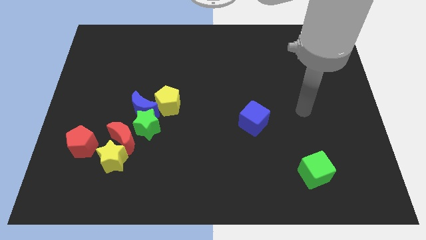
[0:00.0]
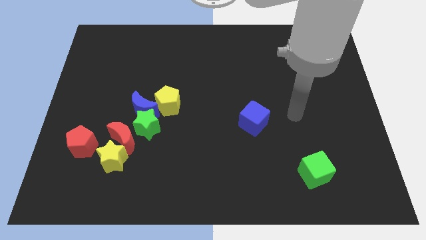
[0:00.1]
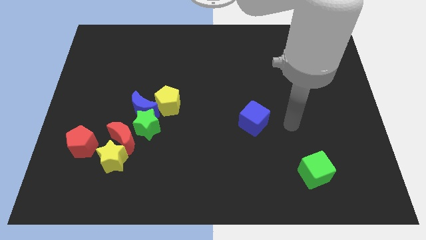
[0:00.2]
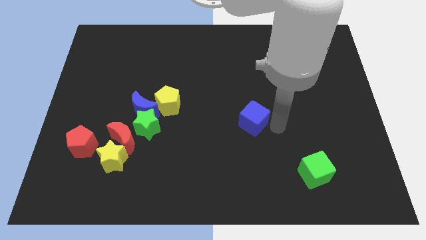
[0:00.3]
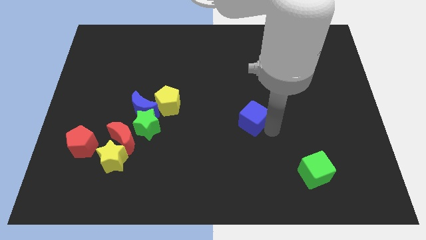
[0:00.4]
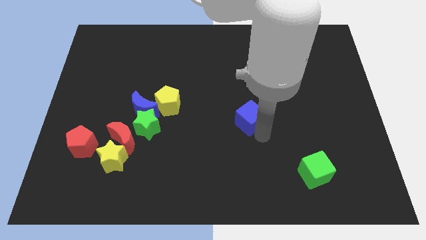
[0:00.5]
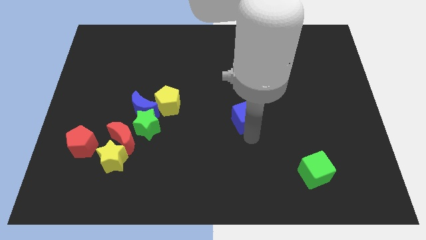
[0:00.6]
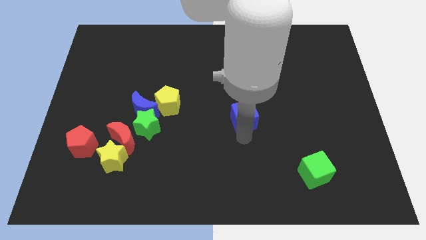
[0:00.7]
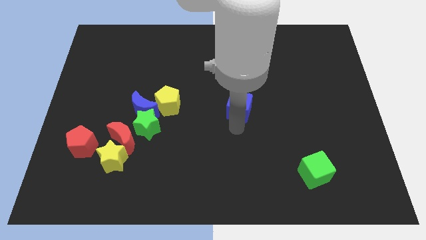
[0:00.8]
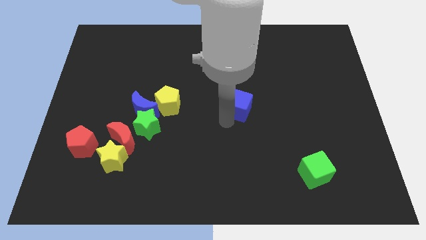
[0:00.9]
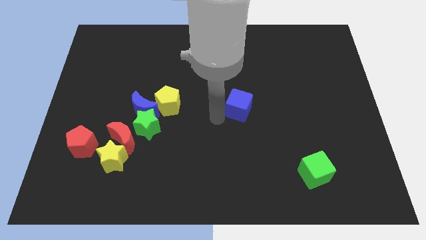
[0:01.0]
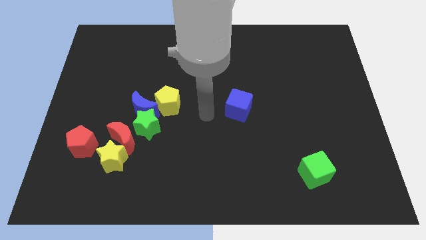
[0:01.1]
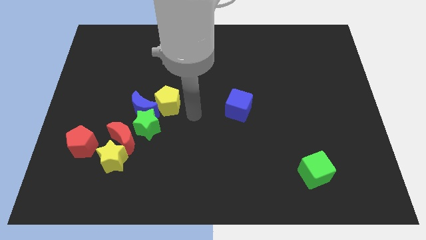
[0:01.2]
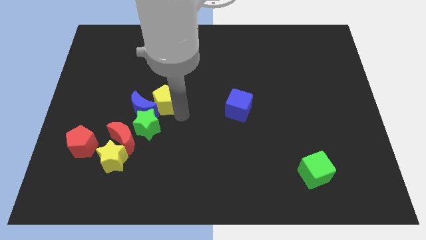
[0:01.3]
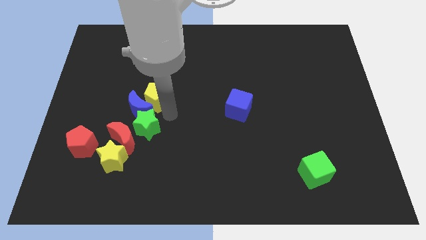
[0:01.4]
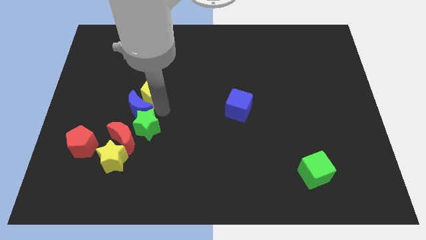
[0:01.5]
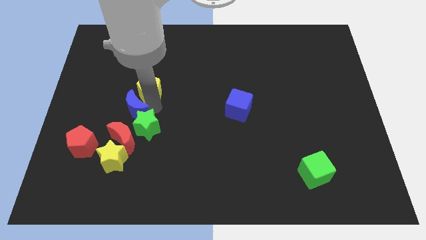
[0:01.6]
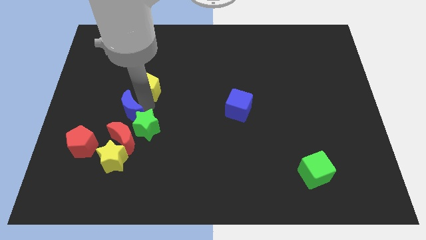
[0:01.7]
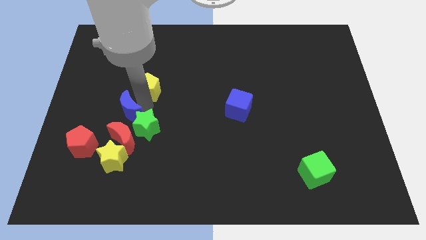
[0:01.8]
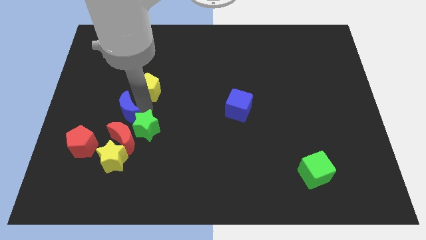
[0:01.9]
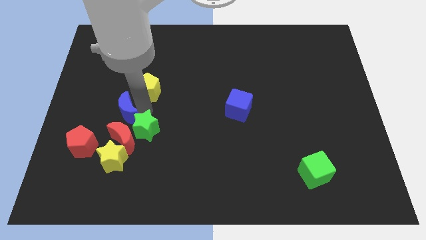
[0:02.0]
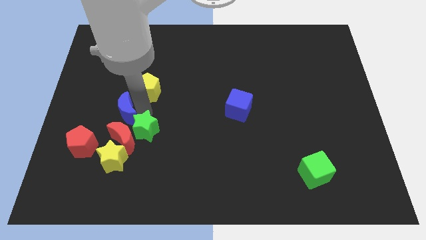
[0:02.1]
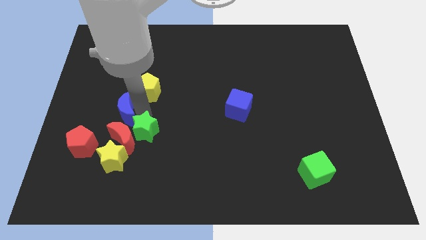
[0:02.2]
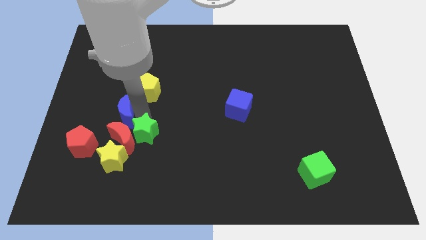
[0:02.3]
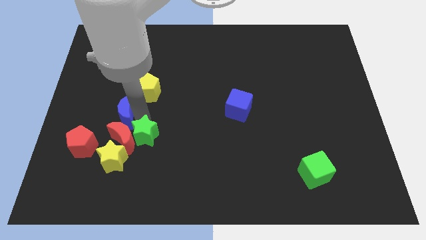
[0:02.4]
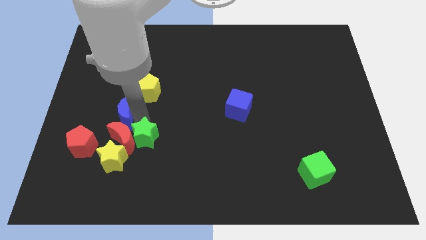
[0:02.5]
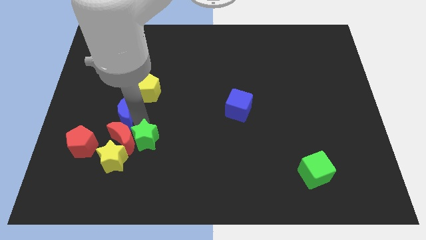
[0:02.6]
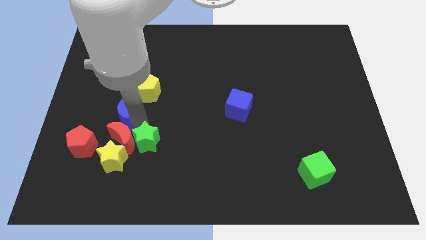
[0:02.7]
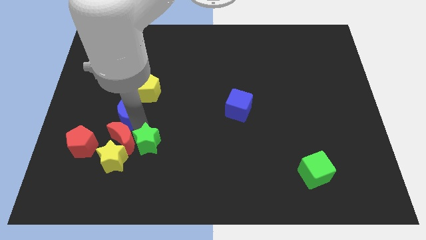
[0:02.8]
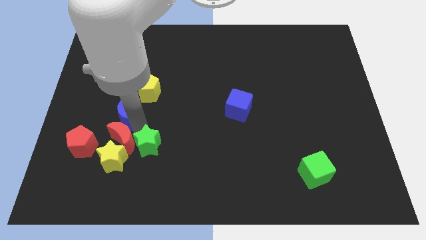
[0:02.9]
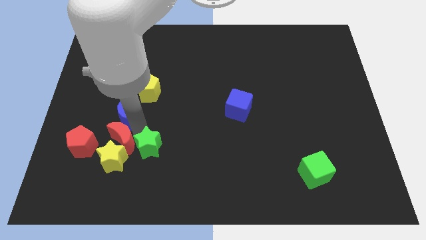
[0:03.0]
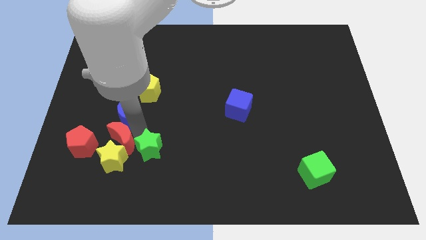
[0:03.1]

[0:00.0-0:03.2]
move the green star away from the clump

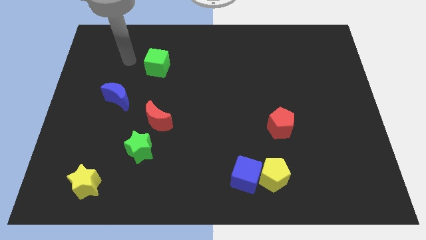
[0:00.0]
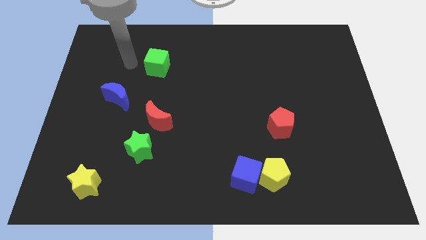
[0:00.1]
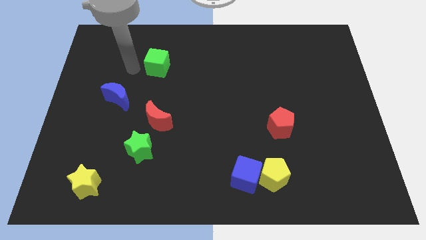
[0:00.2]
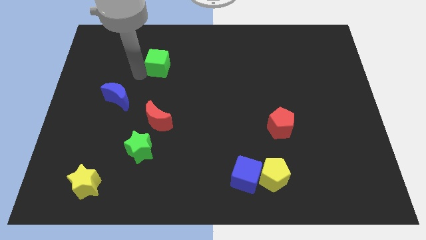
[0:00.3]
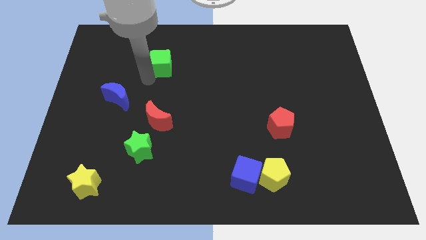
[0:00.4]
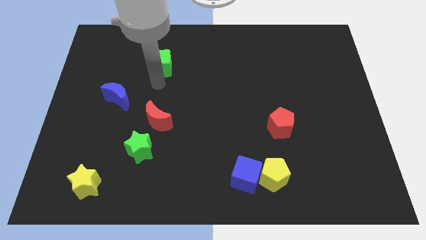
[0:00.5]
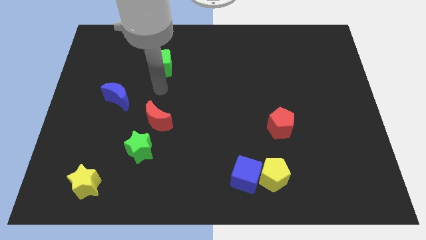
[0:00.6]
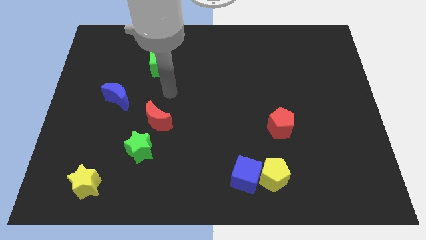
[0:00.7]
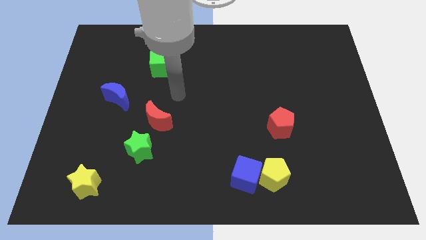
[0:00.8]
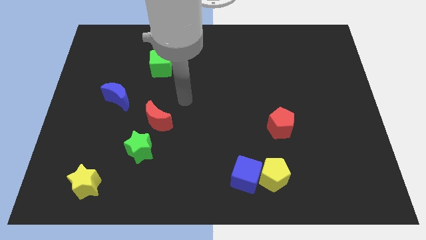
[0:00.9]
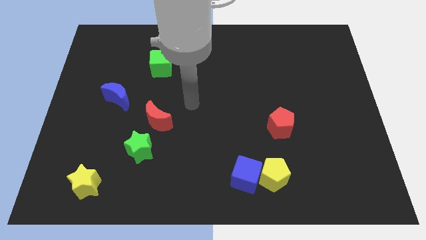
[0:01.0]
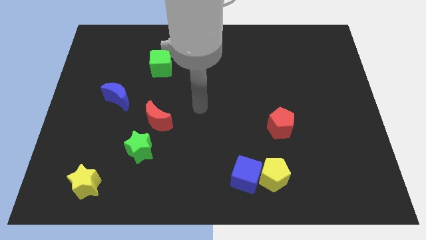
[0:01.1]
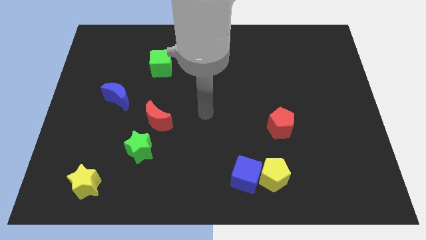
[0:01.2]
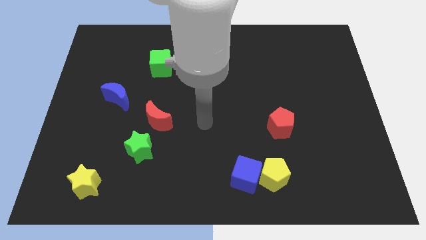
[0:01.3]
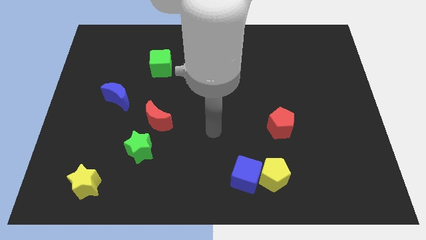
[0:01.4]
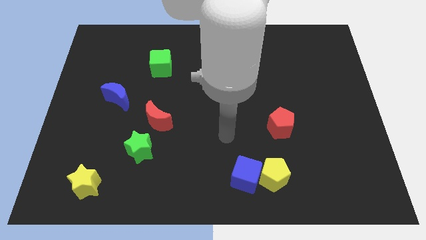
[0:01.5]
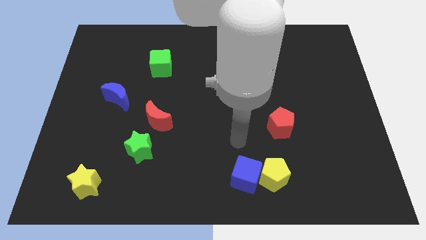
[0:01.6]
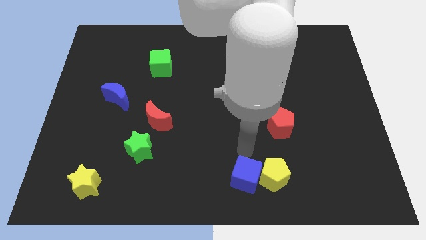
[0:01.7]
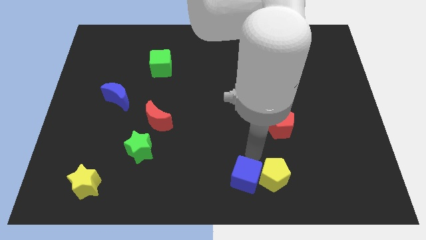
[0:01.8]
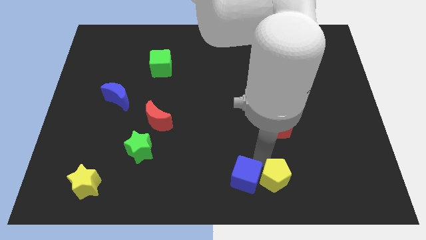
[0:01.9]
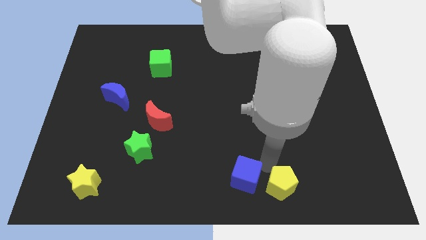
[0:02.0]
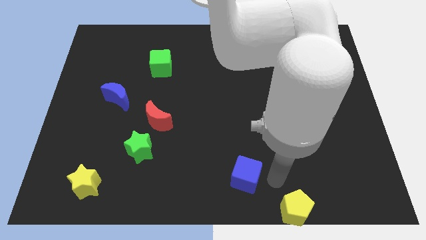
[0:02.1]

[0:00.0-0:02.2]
pull the blue cube apart from the yellow pentagon

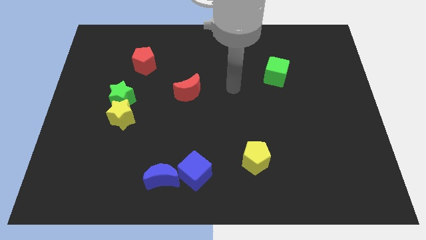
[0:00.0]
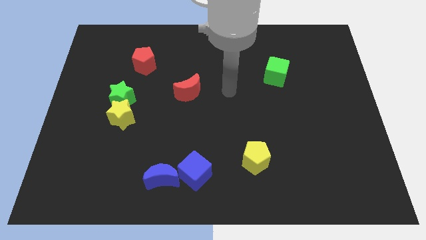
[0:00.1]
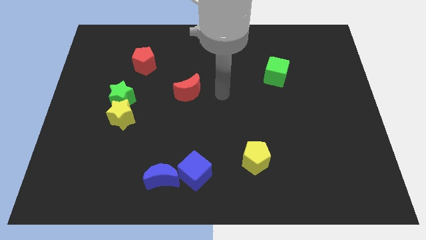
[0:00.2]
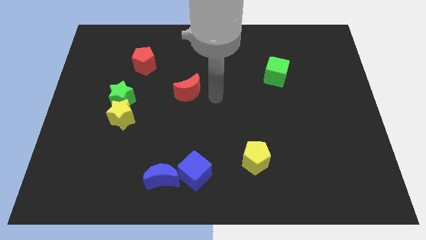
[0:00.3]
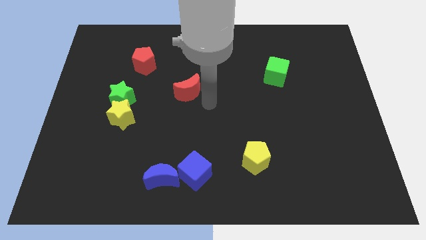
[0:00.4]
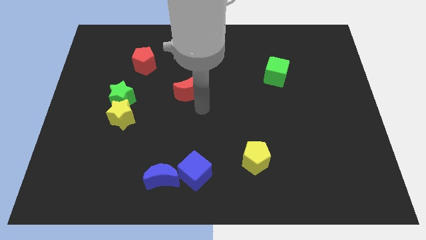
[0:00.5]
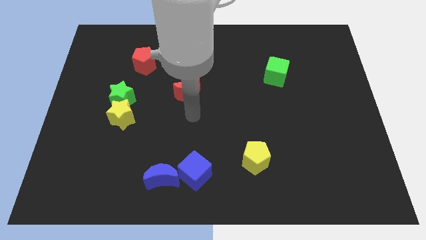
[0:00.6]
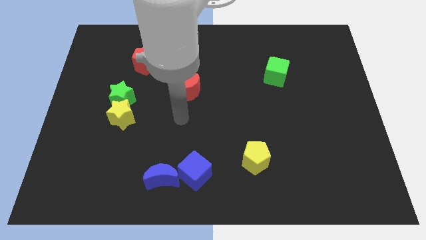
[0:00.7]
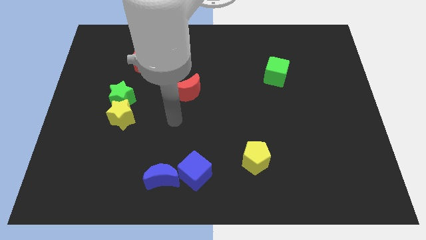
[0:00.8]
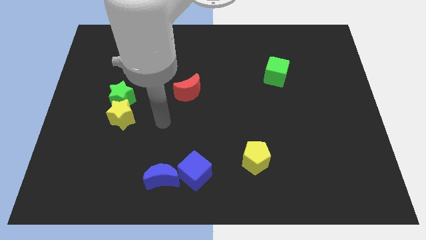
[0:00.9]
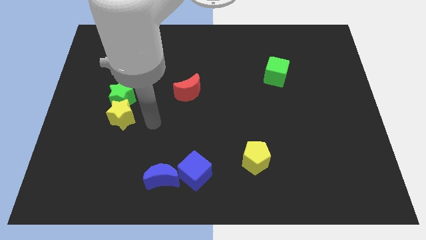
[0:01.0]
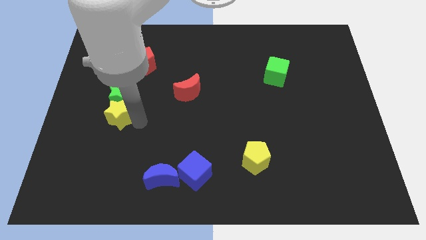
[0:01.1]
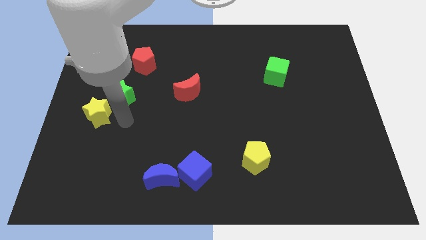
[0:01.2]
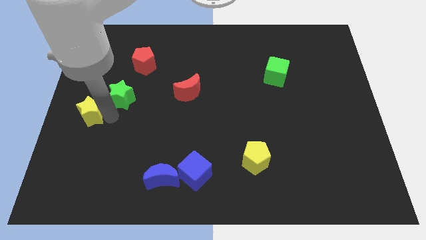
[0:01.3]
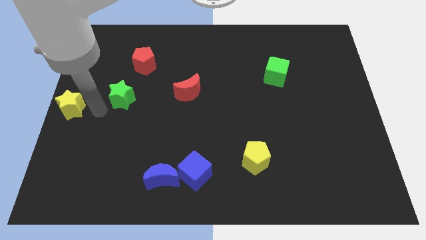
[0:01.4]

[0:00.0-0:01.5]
separate the green star from the yellow star

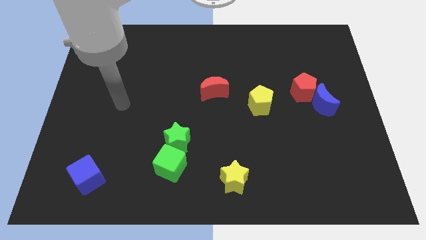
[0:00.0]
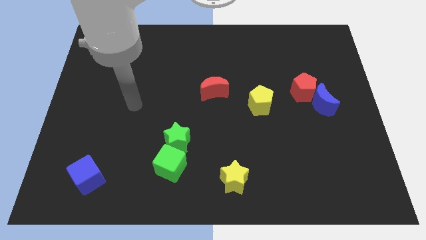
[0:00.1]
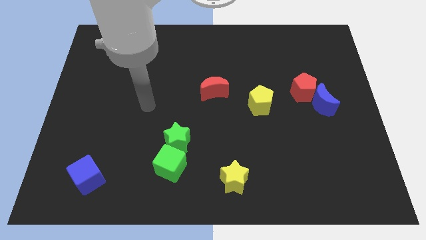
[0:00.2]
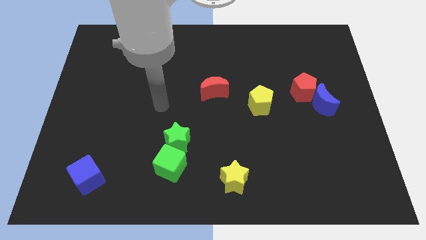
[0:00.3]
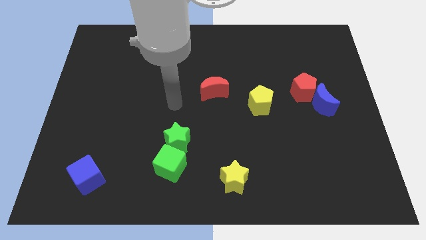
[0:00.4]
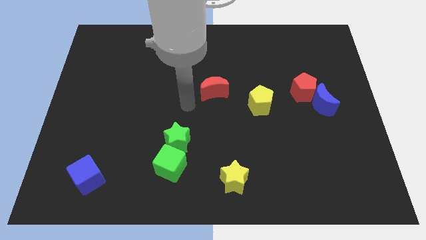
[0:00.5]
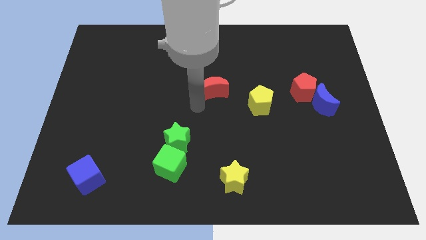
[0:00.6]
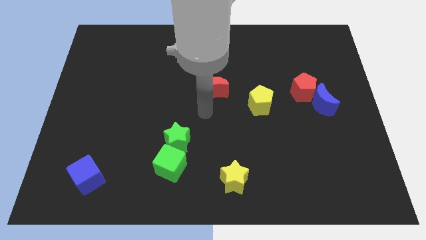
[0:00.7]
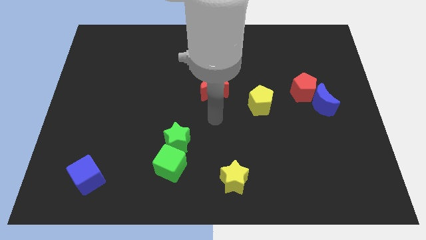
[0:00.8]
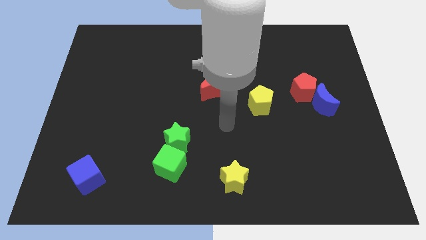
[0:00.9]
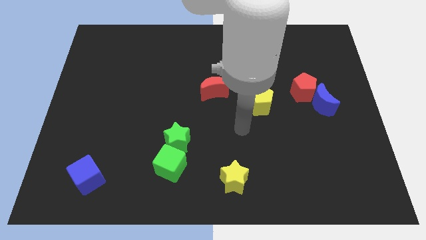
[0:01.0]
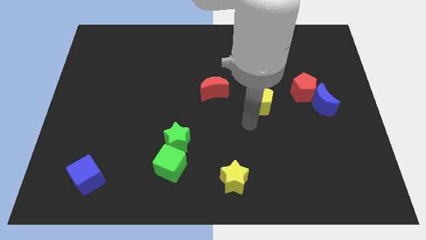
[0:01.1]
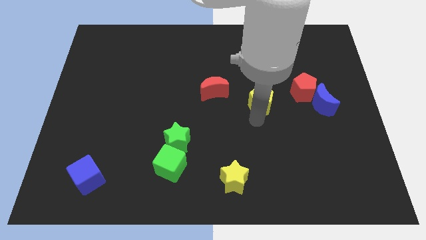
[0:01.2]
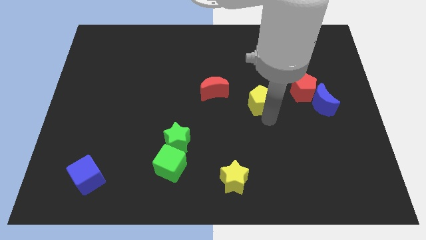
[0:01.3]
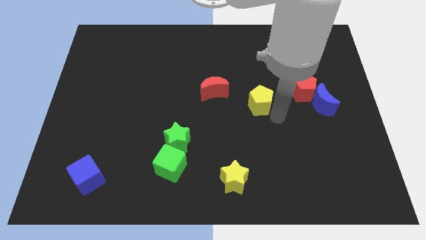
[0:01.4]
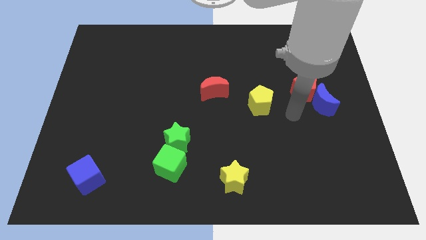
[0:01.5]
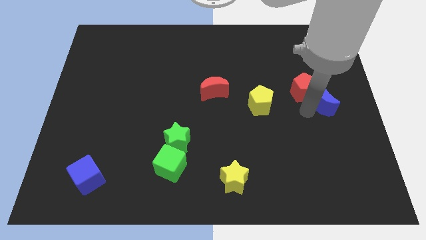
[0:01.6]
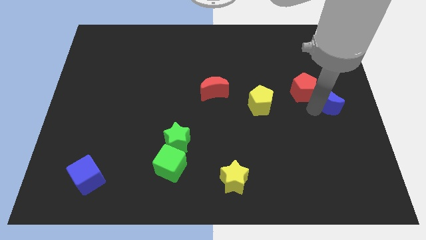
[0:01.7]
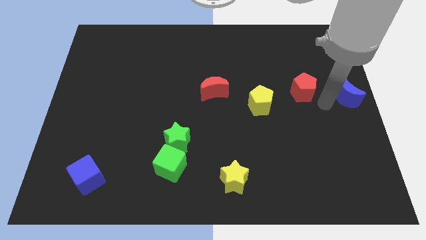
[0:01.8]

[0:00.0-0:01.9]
move the red pentagon away from the blue moon

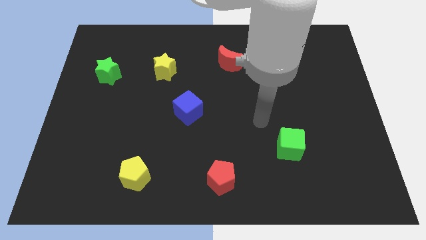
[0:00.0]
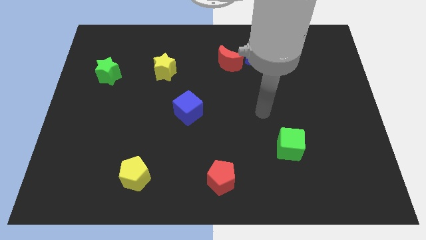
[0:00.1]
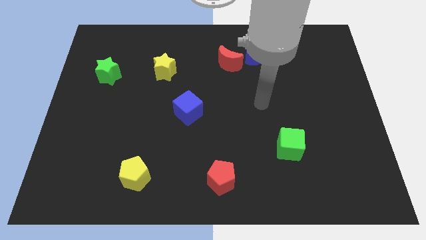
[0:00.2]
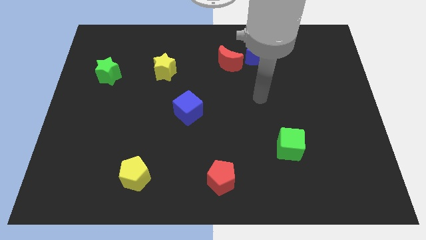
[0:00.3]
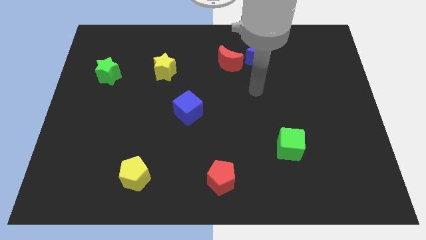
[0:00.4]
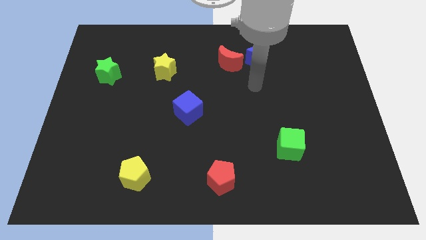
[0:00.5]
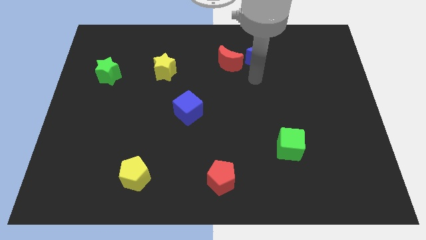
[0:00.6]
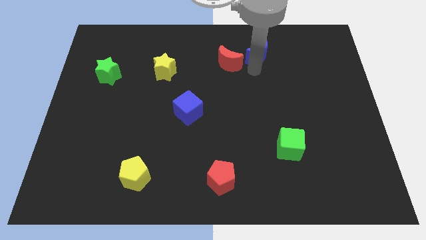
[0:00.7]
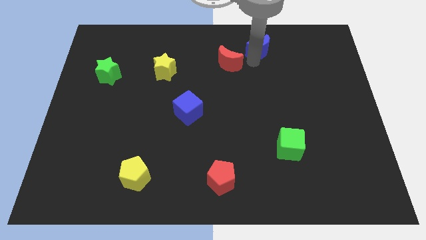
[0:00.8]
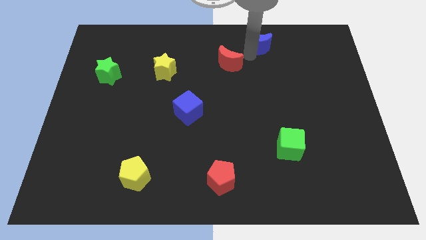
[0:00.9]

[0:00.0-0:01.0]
pull the red moon apart from the blue moon
